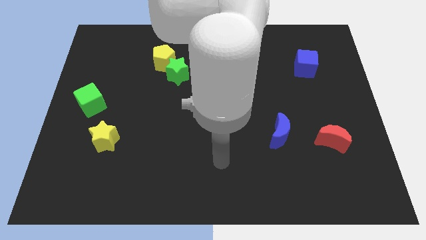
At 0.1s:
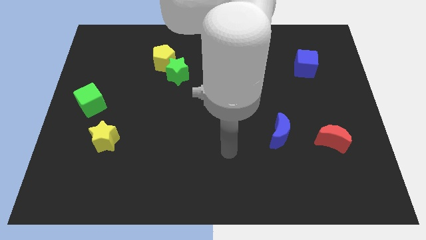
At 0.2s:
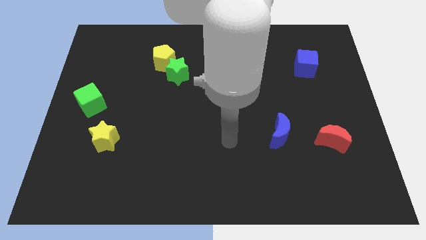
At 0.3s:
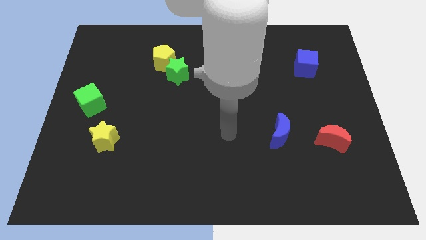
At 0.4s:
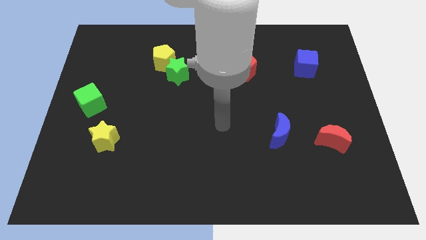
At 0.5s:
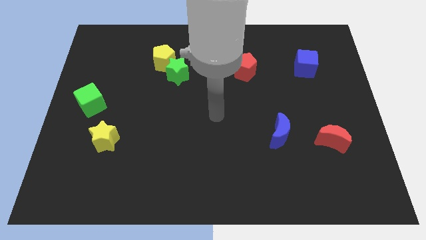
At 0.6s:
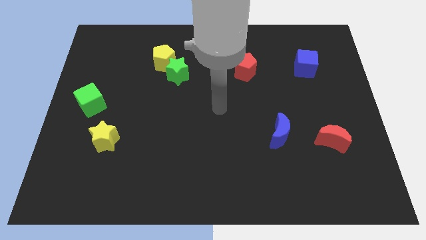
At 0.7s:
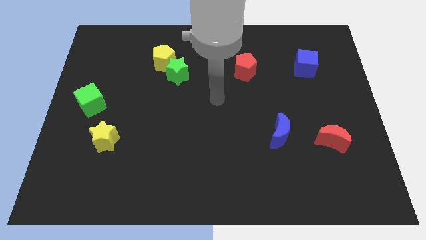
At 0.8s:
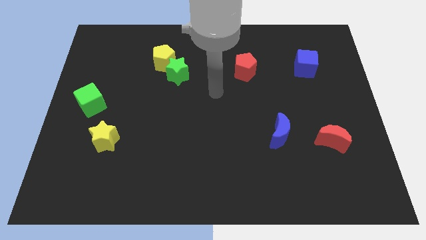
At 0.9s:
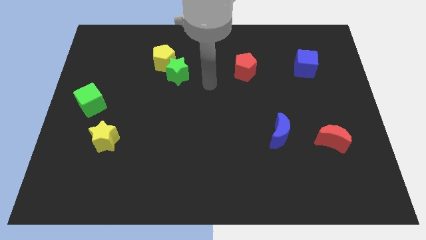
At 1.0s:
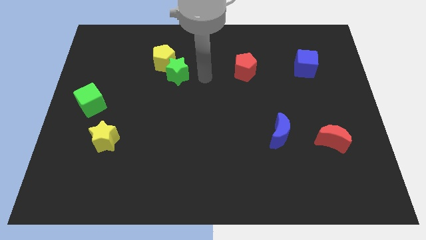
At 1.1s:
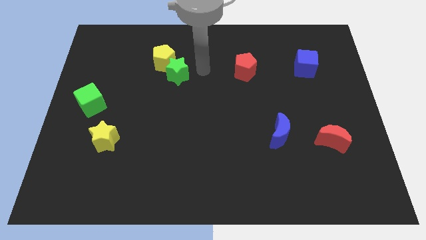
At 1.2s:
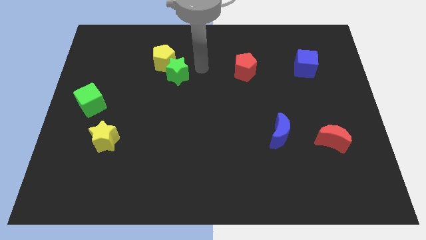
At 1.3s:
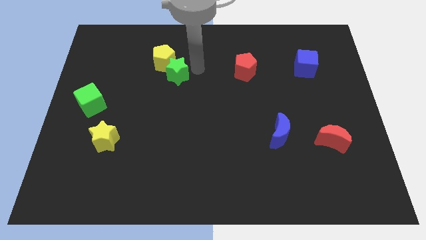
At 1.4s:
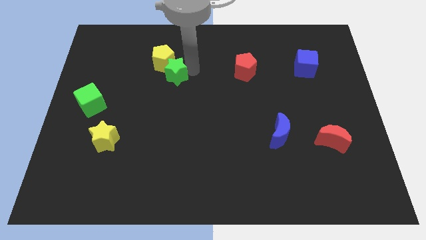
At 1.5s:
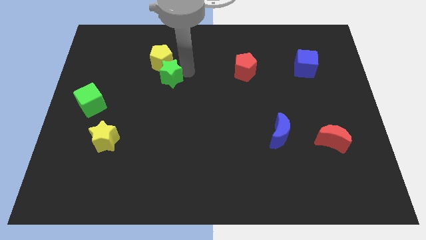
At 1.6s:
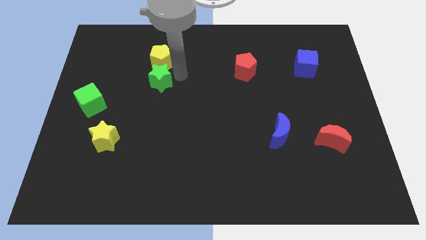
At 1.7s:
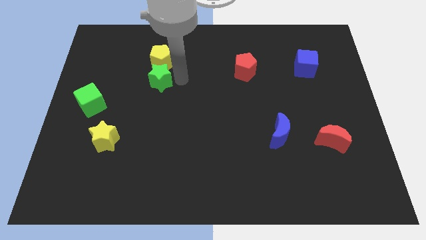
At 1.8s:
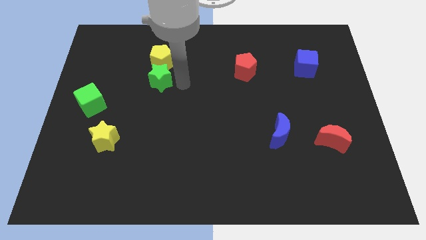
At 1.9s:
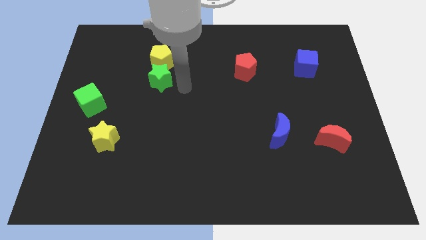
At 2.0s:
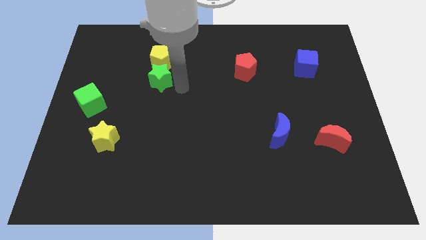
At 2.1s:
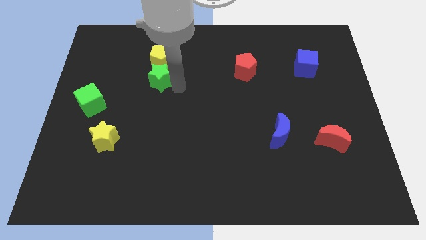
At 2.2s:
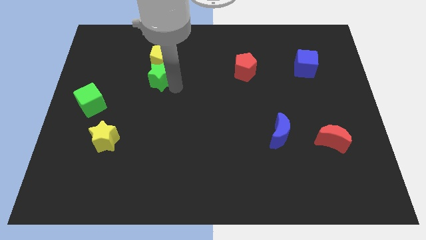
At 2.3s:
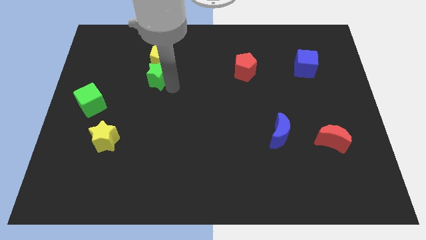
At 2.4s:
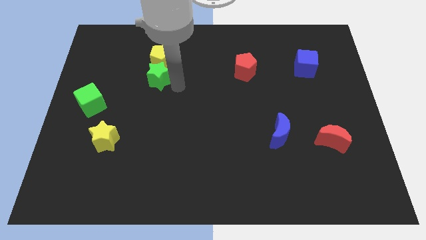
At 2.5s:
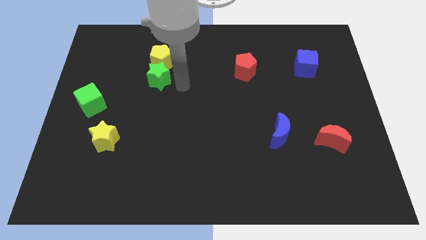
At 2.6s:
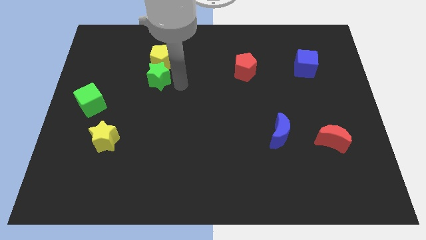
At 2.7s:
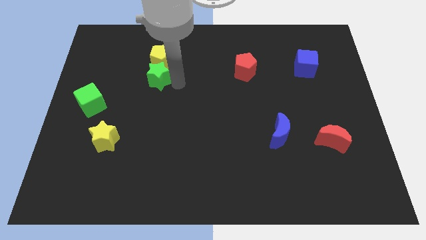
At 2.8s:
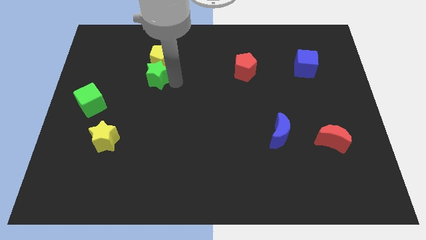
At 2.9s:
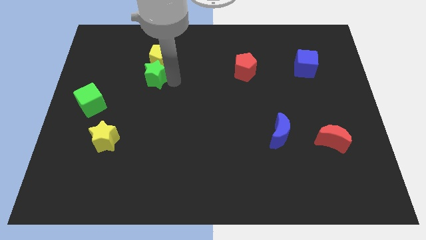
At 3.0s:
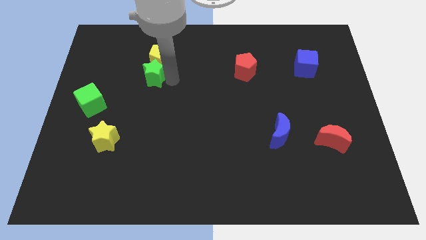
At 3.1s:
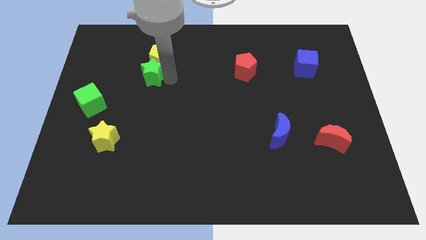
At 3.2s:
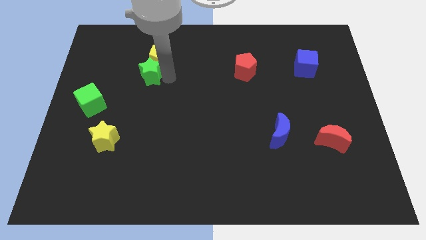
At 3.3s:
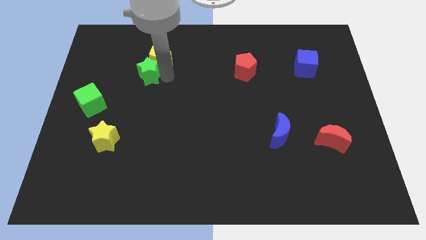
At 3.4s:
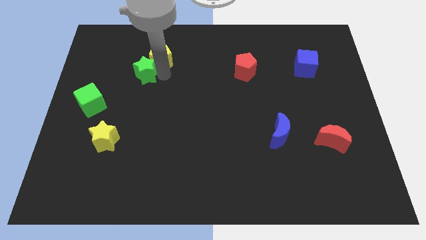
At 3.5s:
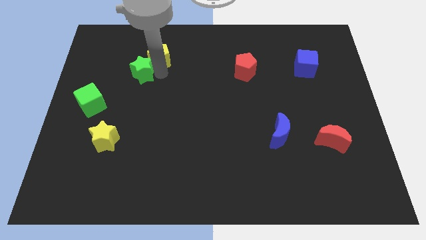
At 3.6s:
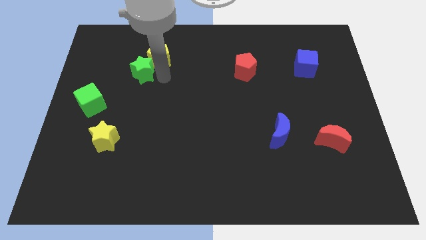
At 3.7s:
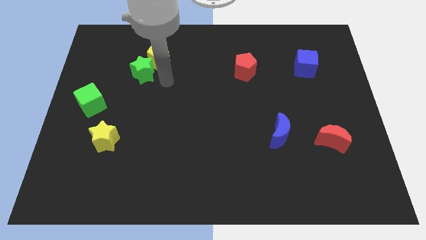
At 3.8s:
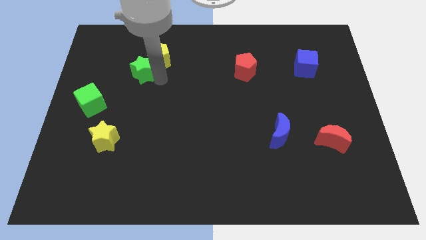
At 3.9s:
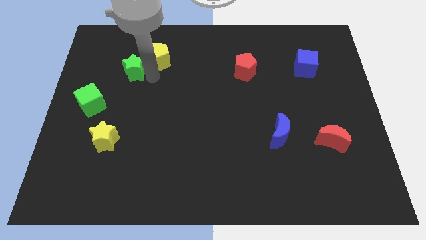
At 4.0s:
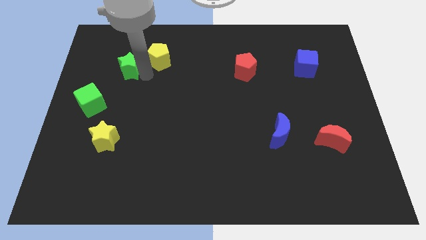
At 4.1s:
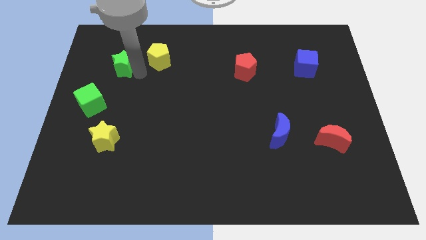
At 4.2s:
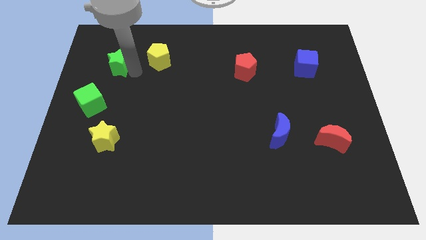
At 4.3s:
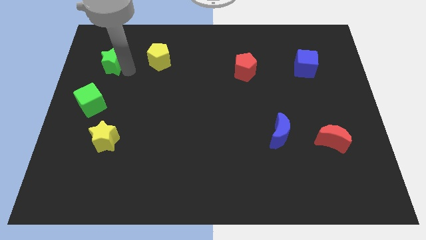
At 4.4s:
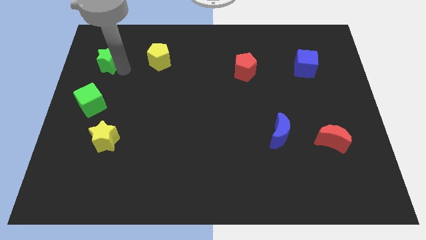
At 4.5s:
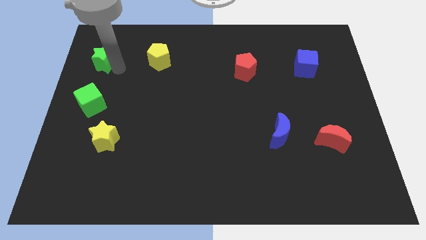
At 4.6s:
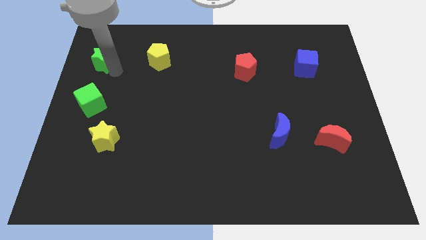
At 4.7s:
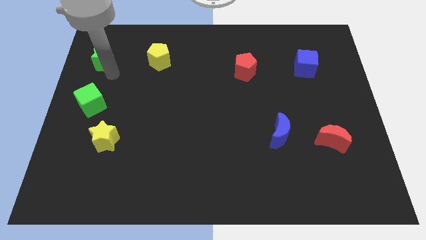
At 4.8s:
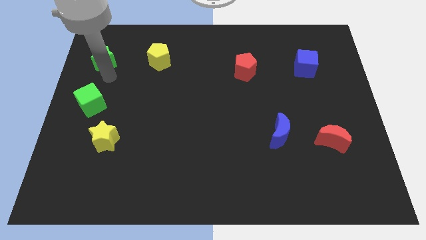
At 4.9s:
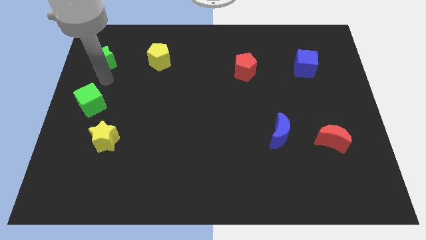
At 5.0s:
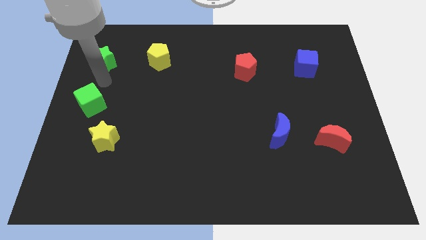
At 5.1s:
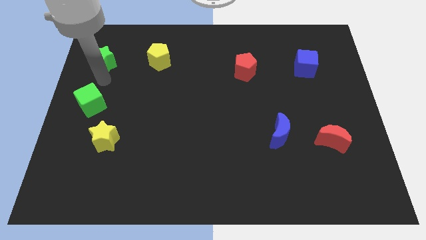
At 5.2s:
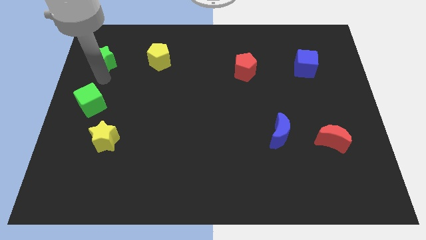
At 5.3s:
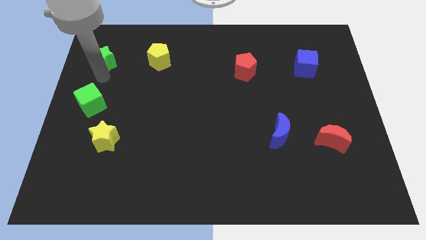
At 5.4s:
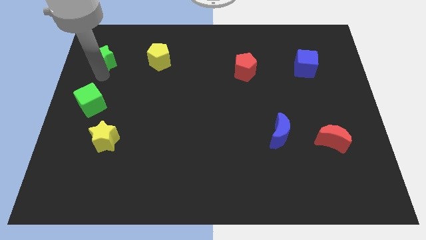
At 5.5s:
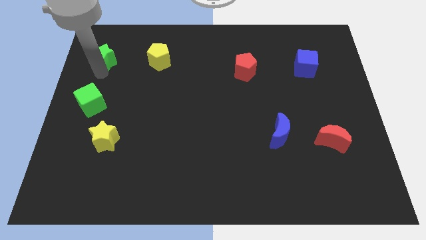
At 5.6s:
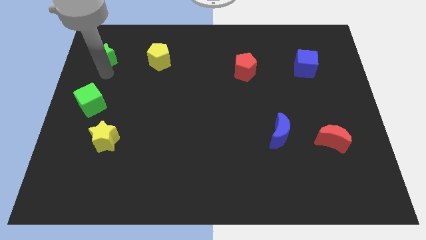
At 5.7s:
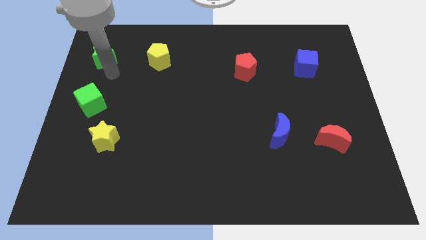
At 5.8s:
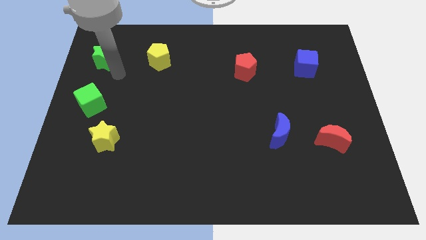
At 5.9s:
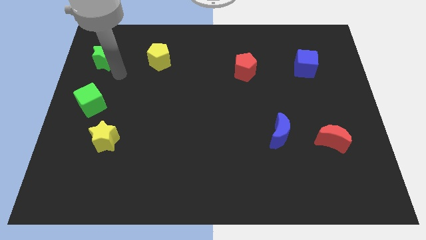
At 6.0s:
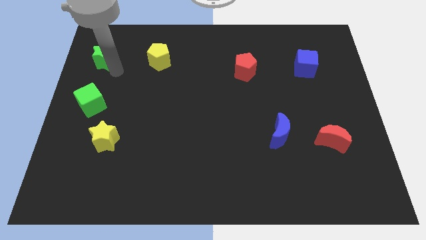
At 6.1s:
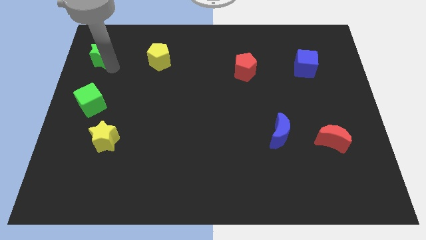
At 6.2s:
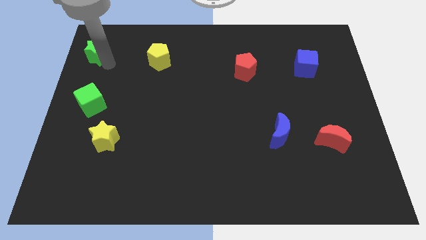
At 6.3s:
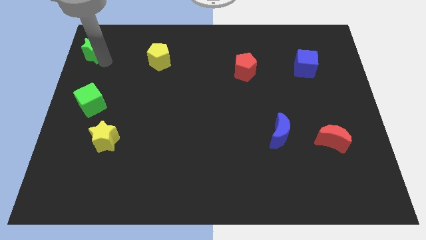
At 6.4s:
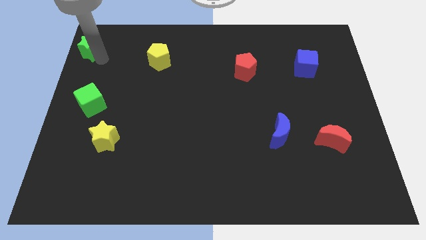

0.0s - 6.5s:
push the green star to the upper left corner

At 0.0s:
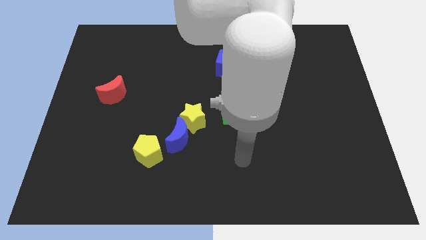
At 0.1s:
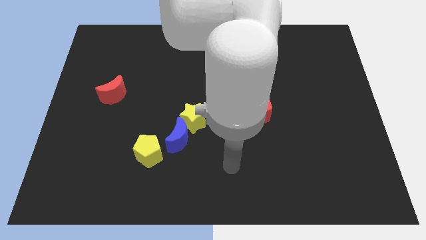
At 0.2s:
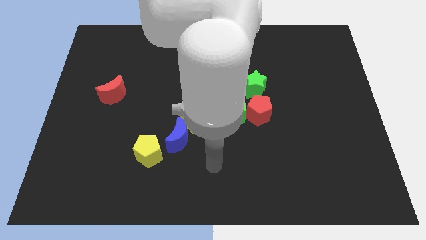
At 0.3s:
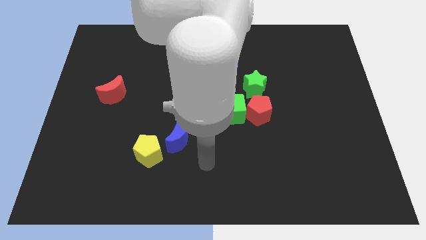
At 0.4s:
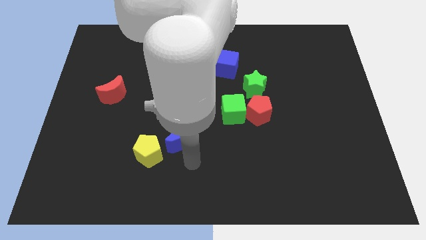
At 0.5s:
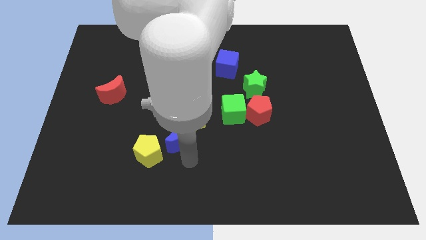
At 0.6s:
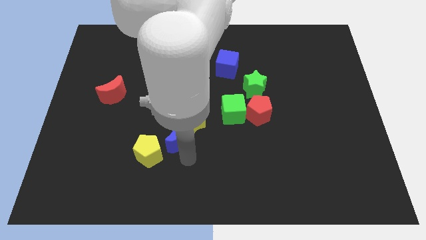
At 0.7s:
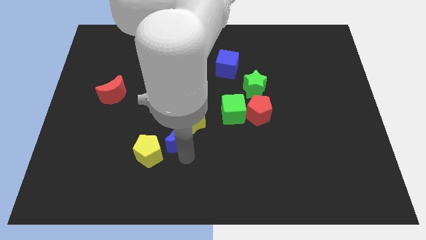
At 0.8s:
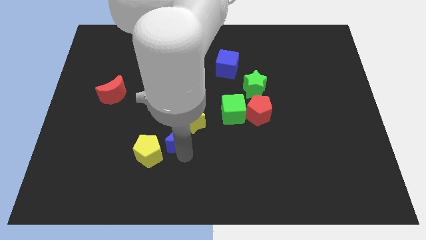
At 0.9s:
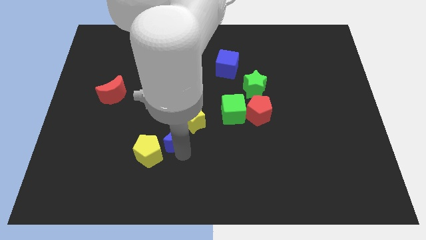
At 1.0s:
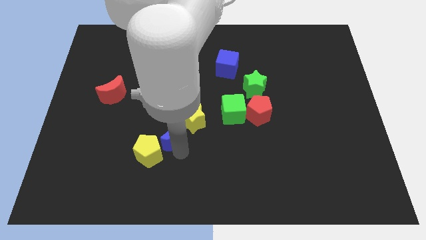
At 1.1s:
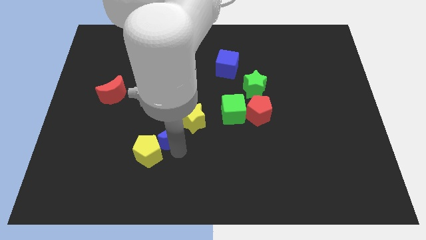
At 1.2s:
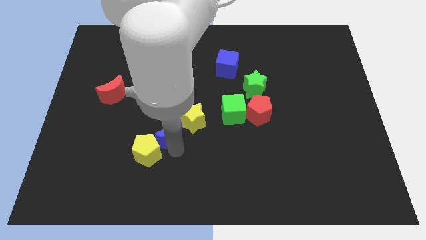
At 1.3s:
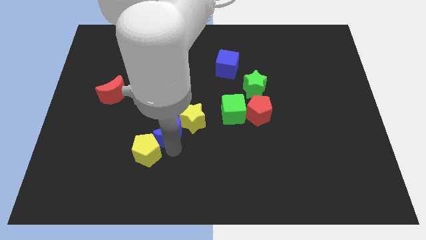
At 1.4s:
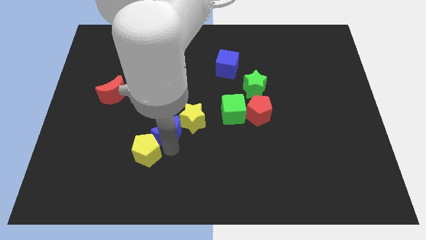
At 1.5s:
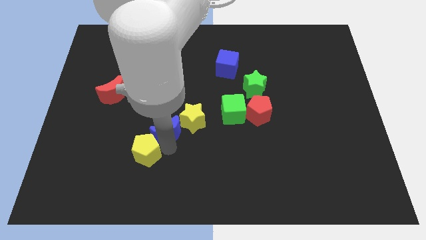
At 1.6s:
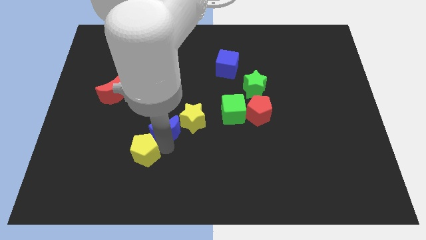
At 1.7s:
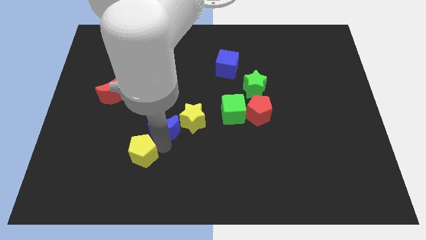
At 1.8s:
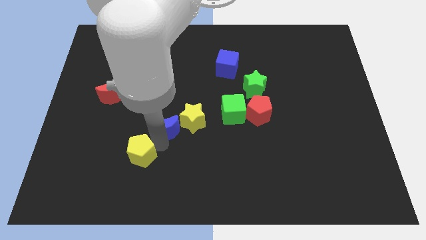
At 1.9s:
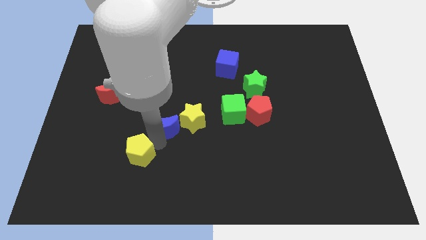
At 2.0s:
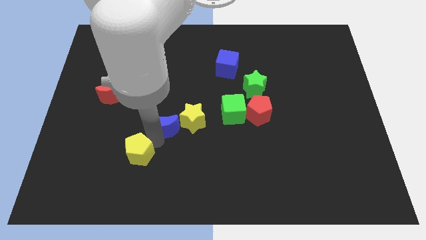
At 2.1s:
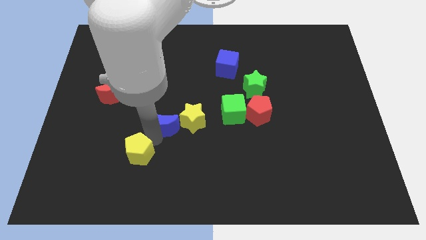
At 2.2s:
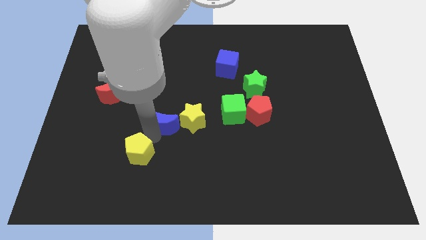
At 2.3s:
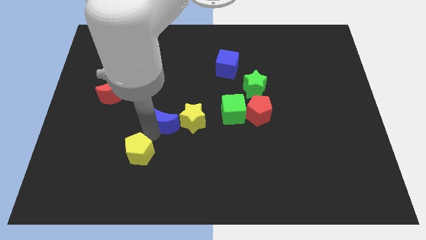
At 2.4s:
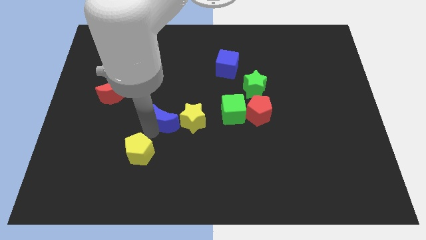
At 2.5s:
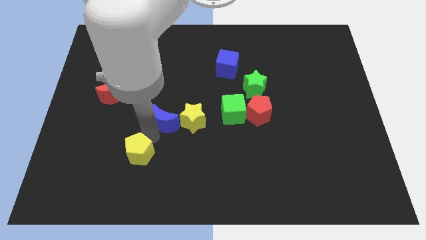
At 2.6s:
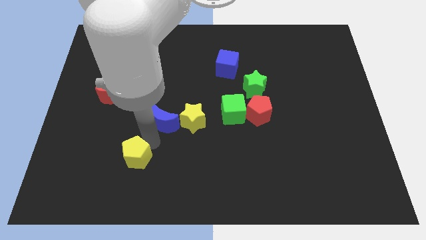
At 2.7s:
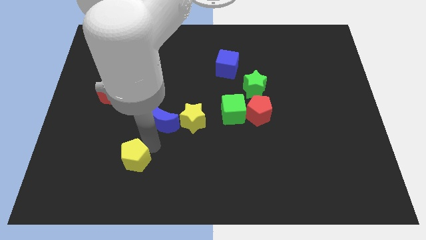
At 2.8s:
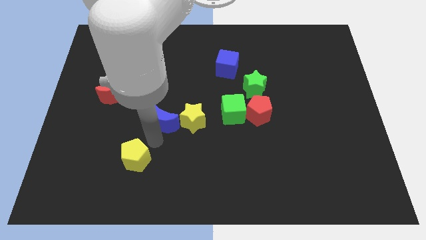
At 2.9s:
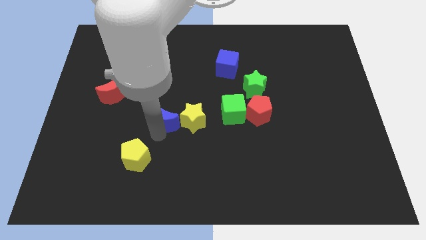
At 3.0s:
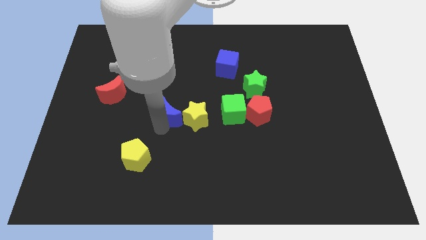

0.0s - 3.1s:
push the blue moon to the middle
